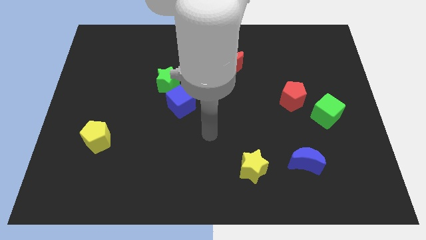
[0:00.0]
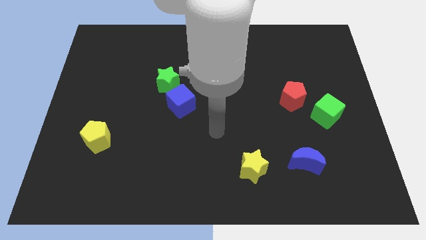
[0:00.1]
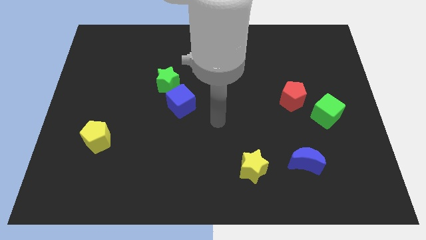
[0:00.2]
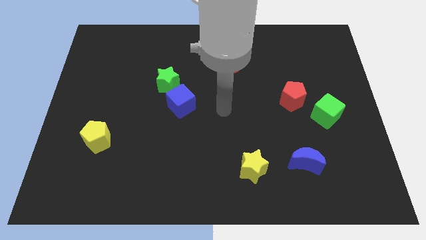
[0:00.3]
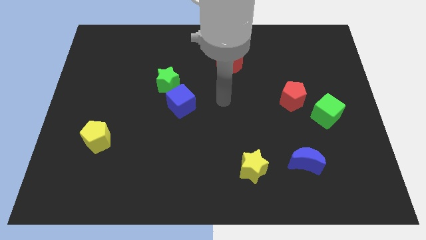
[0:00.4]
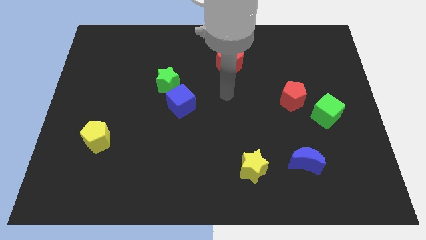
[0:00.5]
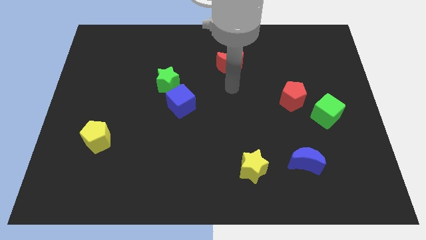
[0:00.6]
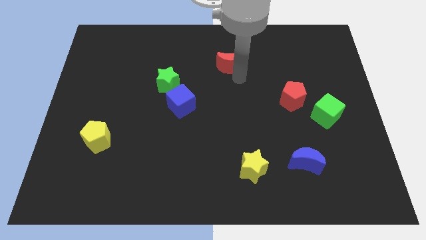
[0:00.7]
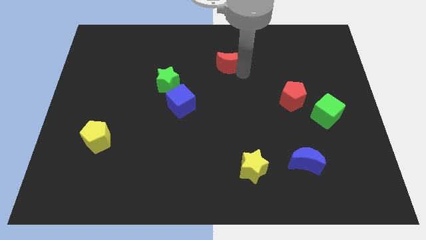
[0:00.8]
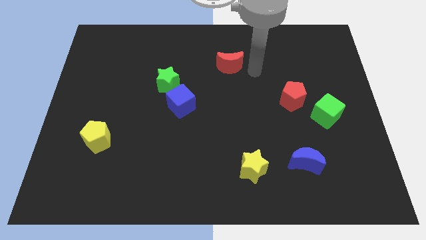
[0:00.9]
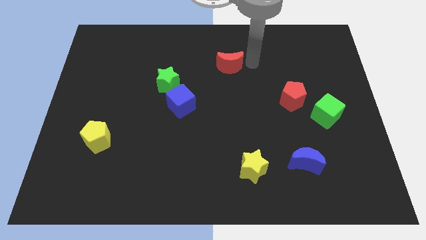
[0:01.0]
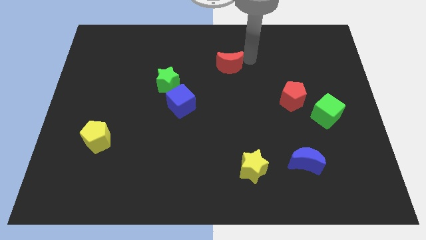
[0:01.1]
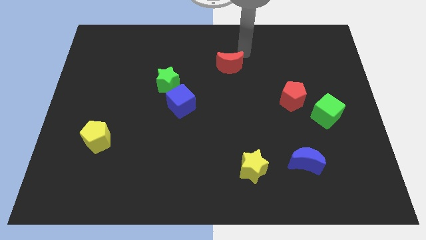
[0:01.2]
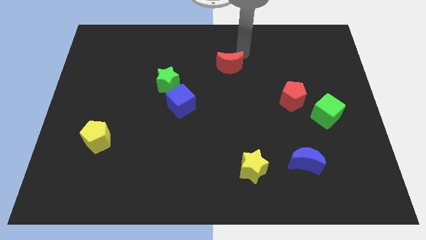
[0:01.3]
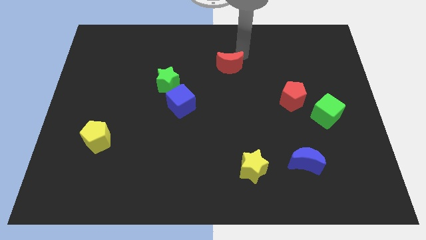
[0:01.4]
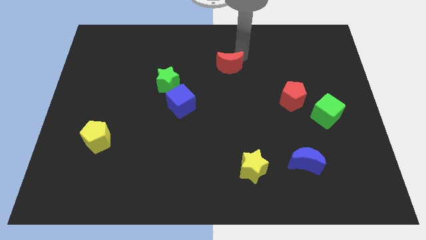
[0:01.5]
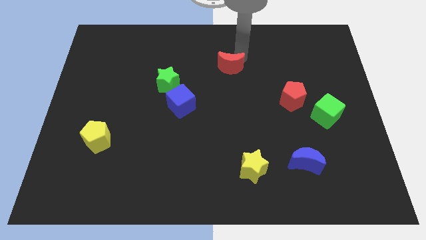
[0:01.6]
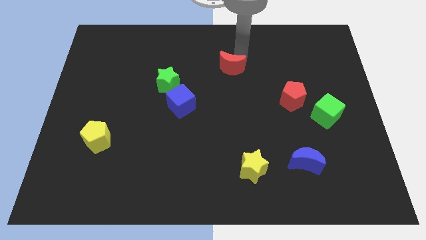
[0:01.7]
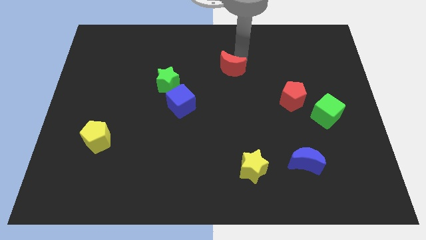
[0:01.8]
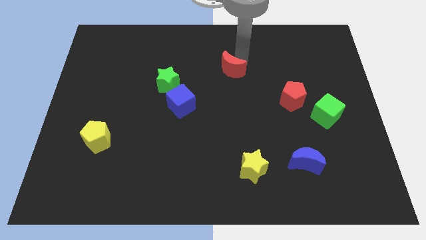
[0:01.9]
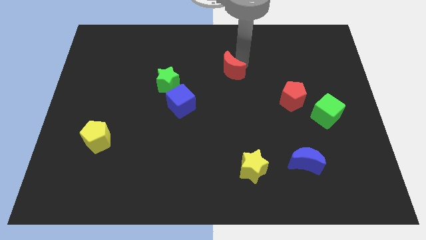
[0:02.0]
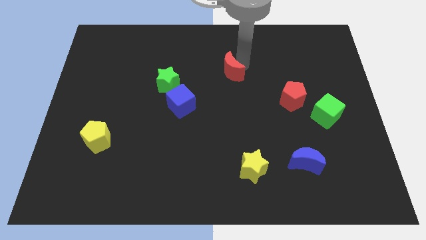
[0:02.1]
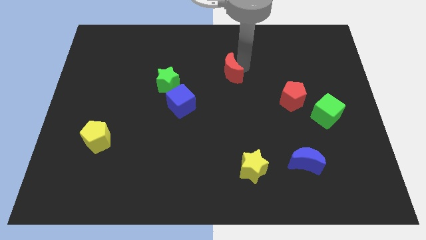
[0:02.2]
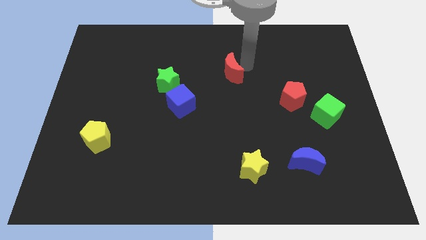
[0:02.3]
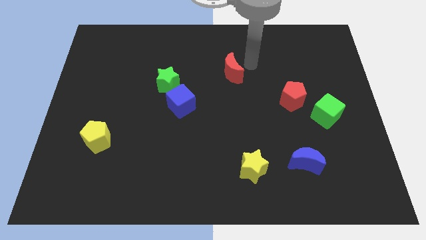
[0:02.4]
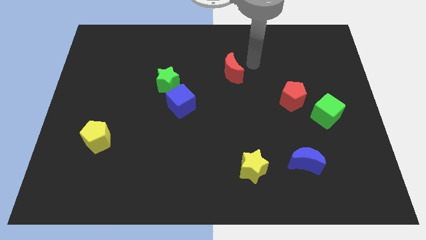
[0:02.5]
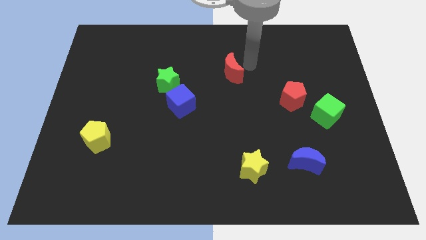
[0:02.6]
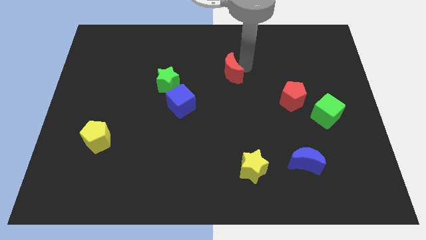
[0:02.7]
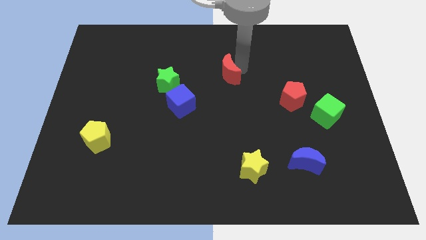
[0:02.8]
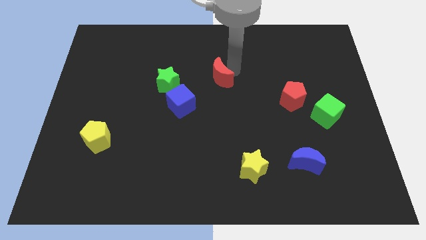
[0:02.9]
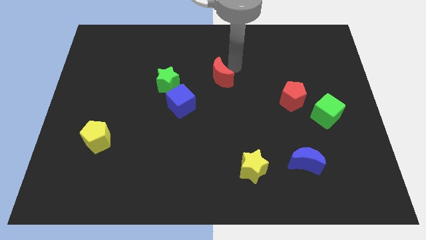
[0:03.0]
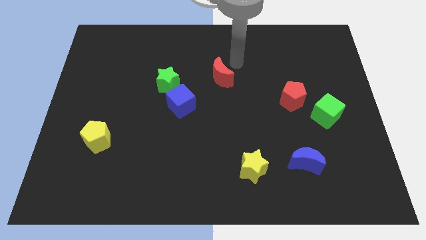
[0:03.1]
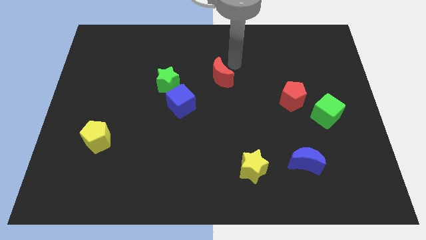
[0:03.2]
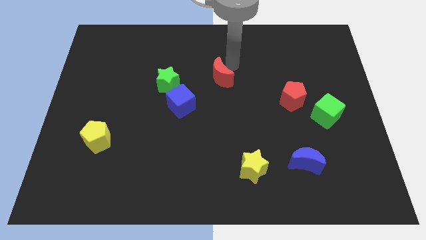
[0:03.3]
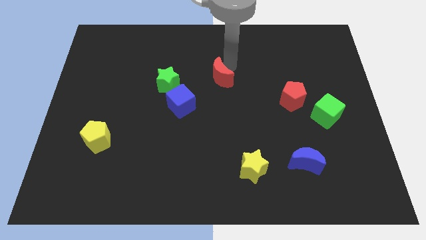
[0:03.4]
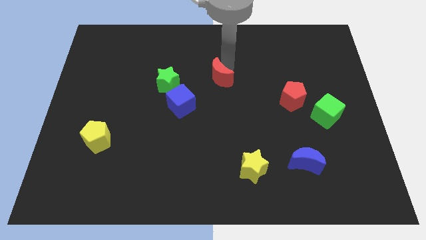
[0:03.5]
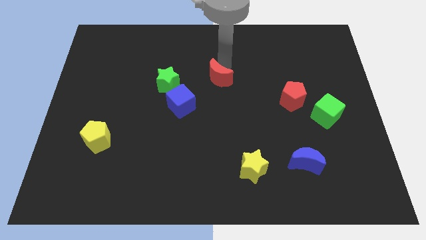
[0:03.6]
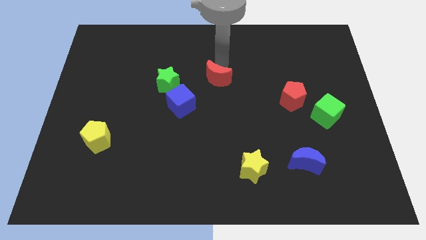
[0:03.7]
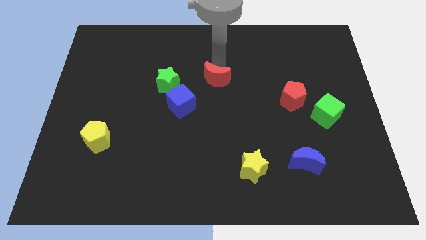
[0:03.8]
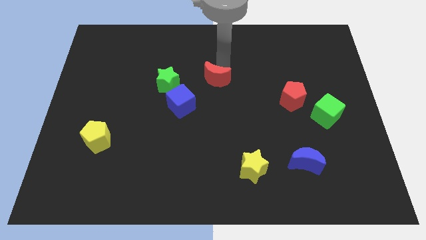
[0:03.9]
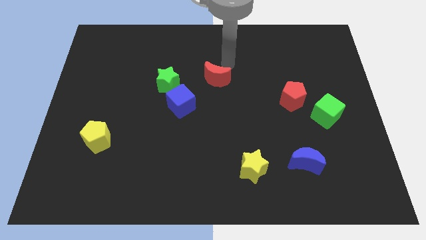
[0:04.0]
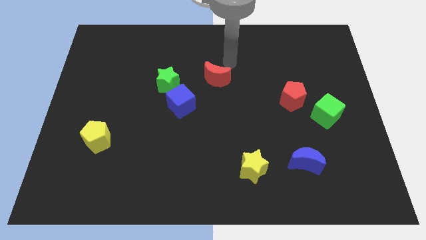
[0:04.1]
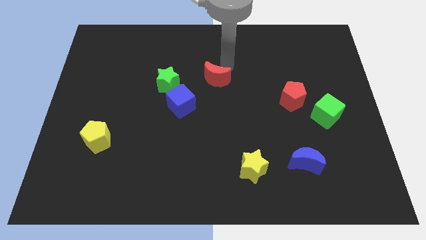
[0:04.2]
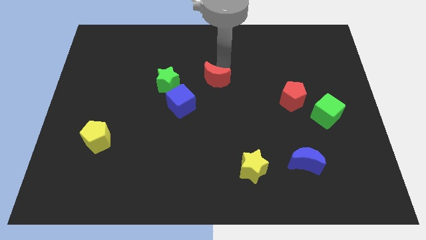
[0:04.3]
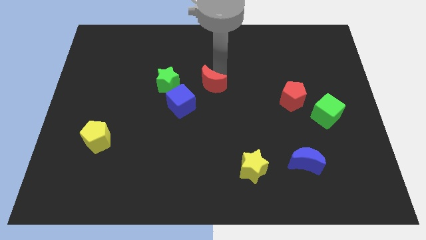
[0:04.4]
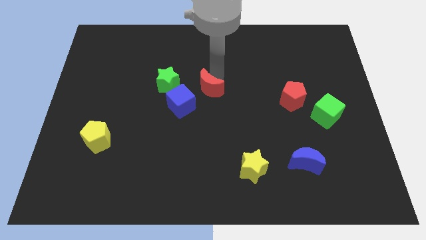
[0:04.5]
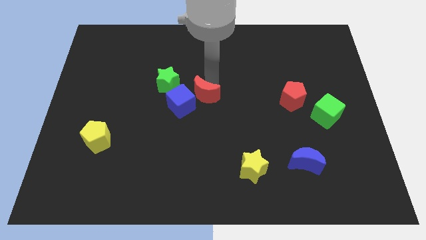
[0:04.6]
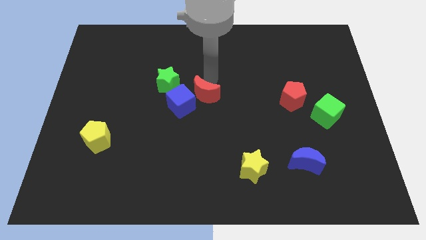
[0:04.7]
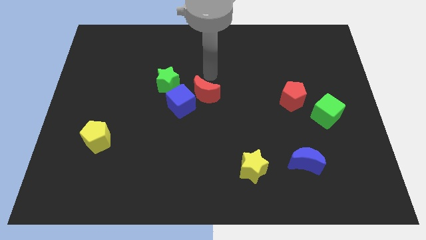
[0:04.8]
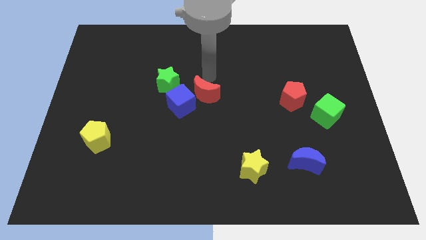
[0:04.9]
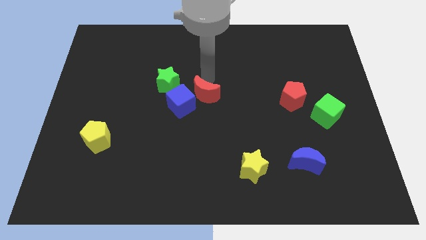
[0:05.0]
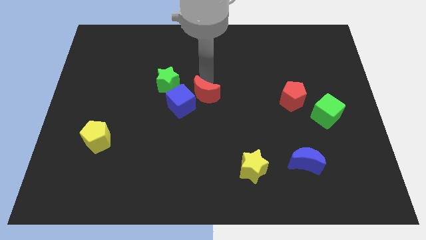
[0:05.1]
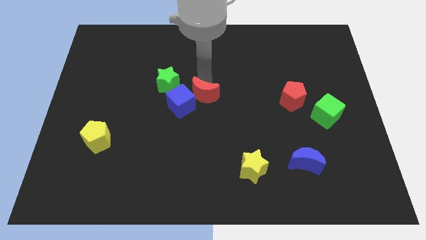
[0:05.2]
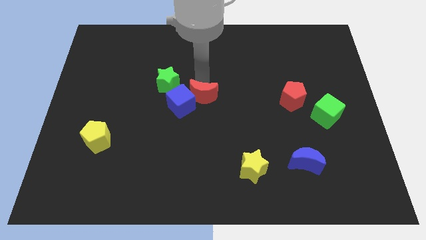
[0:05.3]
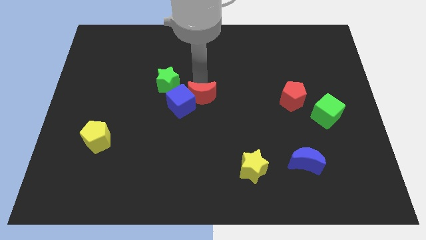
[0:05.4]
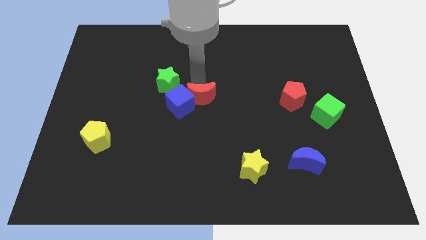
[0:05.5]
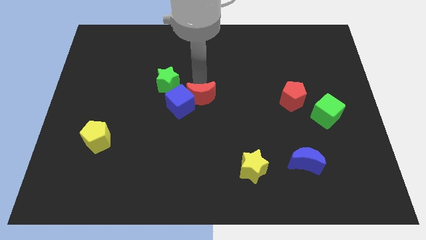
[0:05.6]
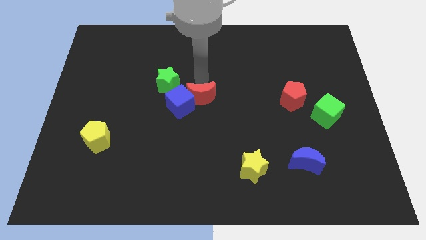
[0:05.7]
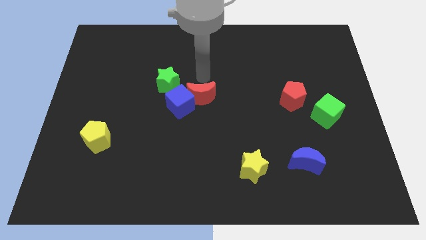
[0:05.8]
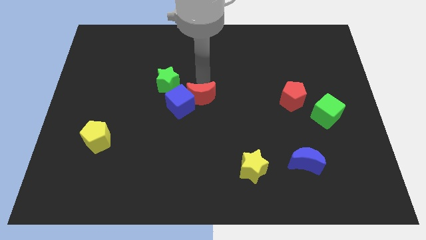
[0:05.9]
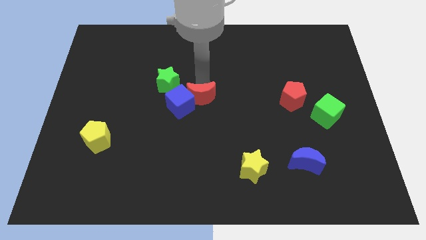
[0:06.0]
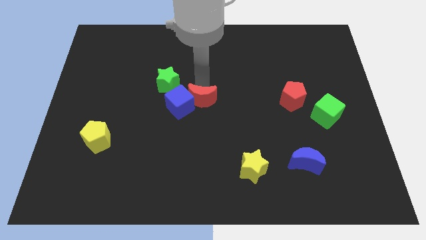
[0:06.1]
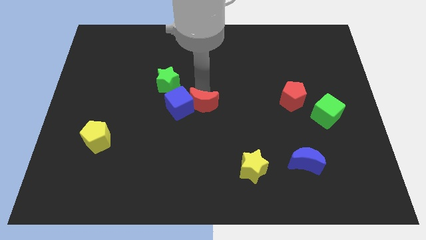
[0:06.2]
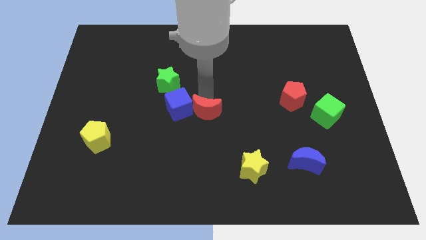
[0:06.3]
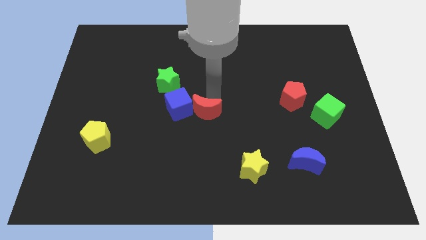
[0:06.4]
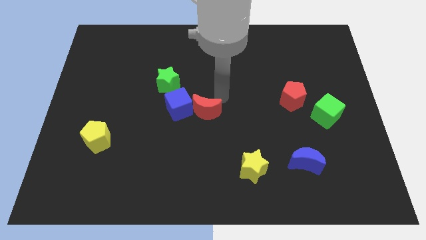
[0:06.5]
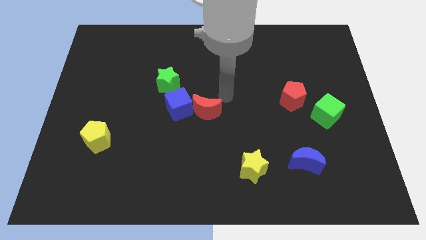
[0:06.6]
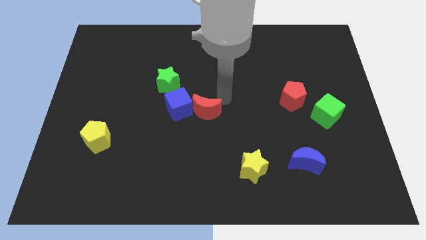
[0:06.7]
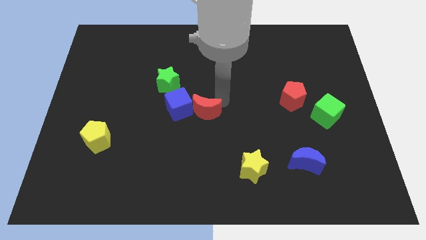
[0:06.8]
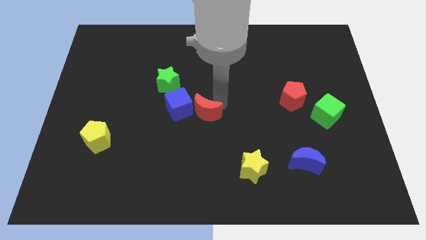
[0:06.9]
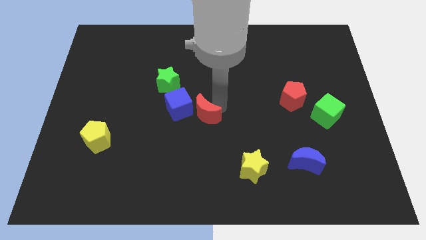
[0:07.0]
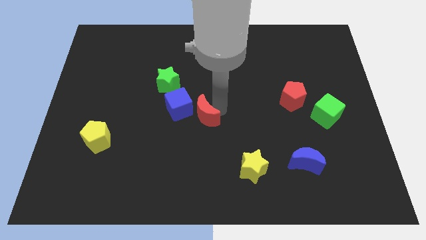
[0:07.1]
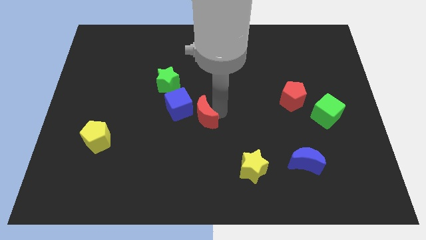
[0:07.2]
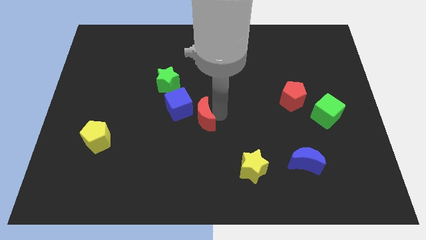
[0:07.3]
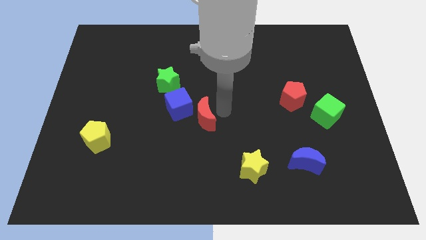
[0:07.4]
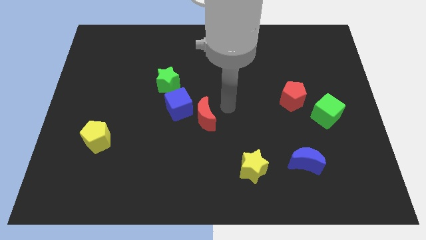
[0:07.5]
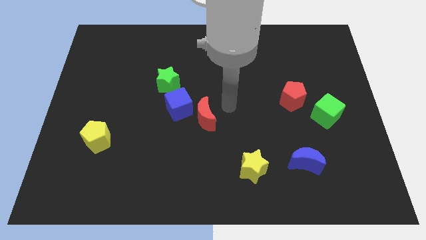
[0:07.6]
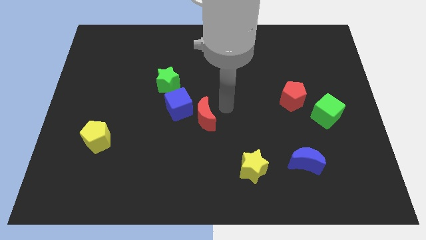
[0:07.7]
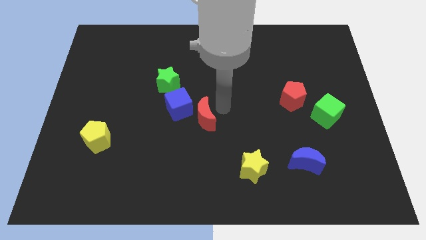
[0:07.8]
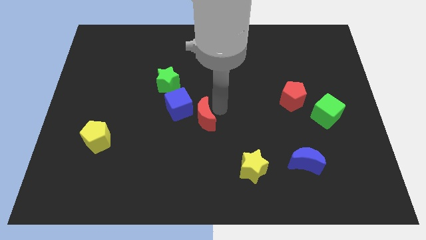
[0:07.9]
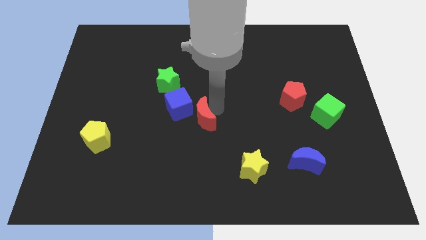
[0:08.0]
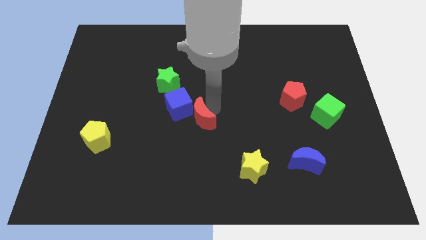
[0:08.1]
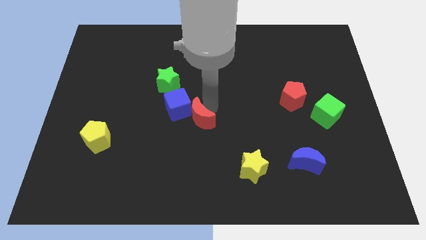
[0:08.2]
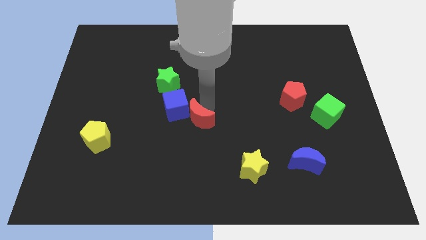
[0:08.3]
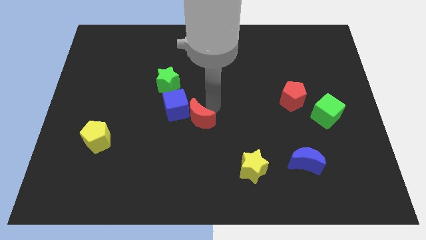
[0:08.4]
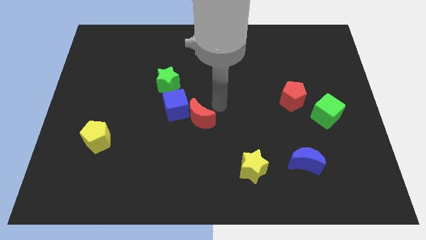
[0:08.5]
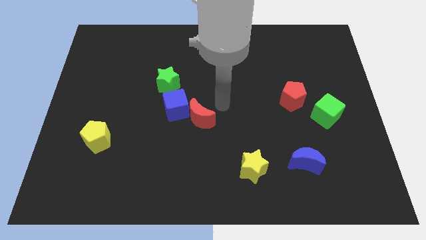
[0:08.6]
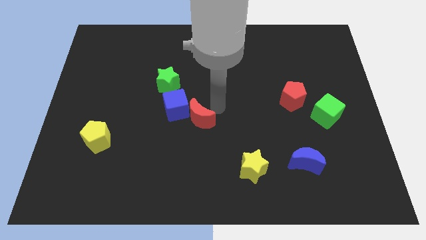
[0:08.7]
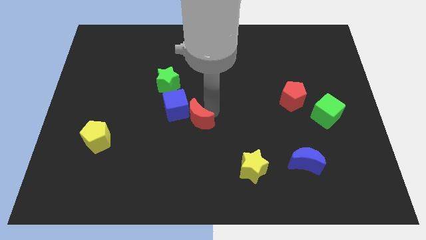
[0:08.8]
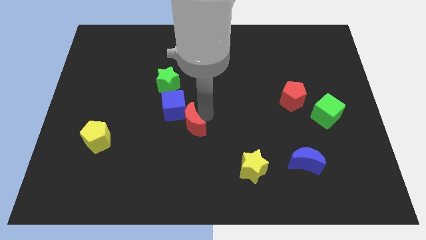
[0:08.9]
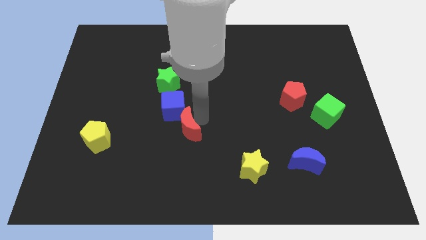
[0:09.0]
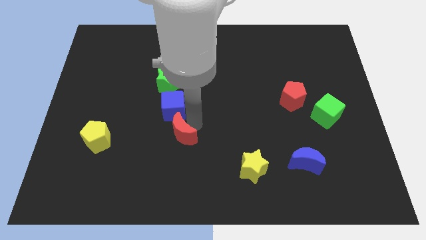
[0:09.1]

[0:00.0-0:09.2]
push the red moon downwards and left diagonally
